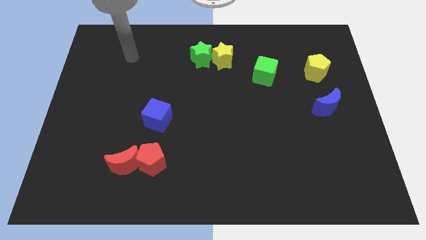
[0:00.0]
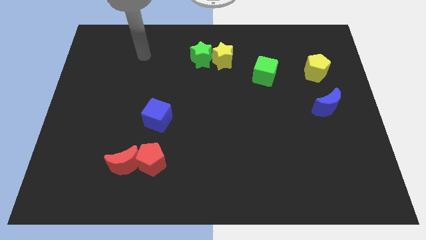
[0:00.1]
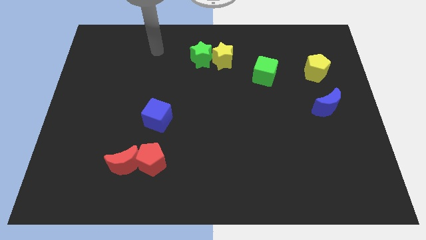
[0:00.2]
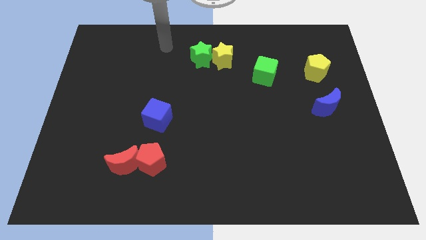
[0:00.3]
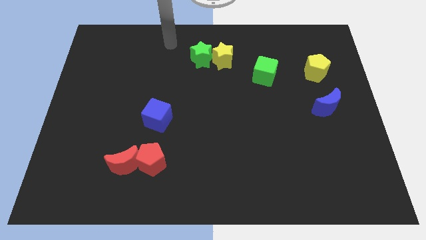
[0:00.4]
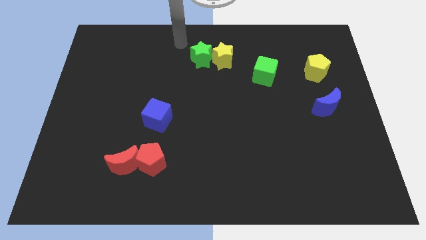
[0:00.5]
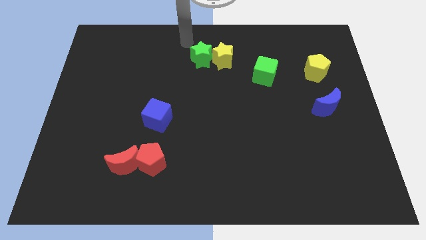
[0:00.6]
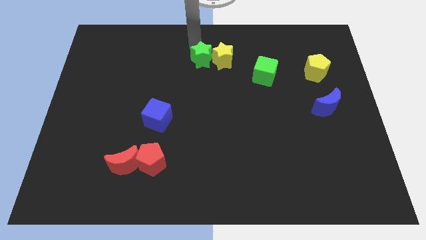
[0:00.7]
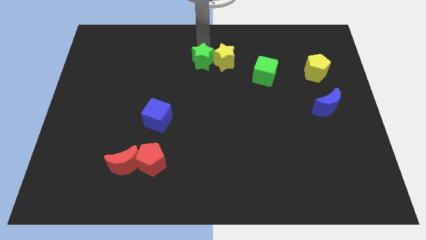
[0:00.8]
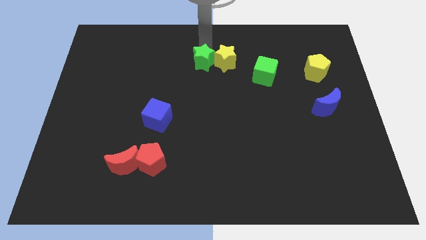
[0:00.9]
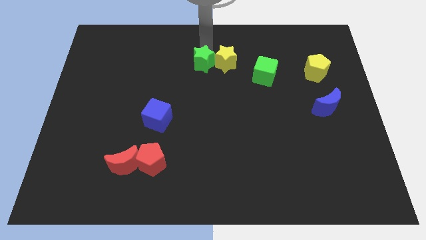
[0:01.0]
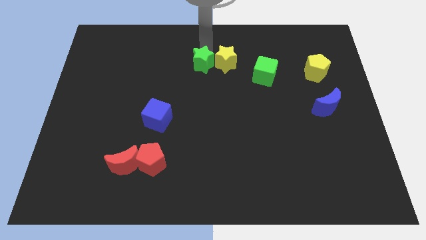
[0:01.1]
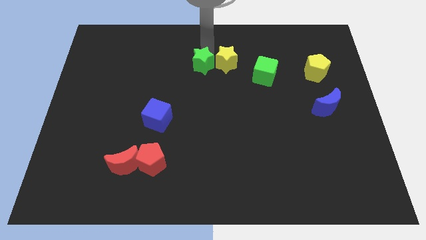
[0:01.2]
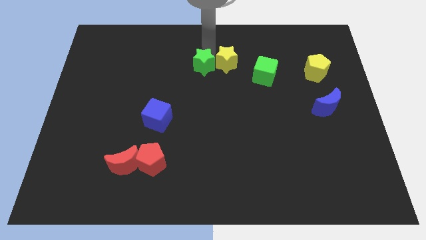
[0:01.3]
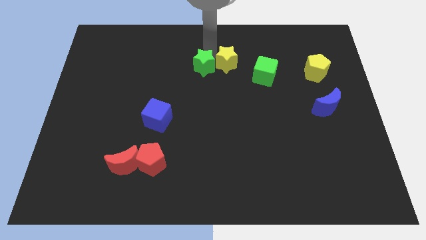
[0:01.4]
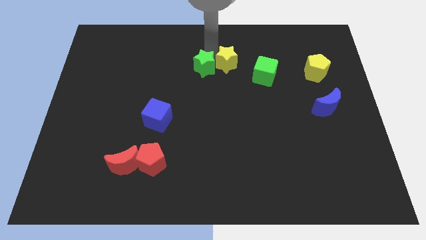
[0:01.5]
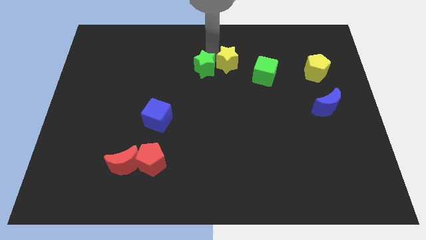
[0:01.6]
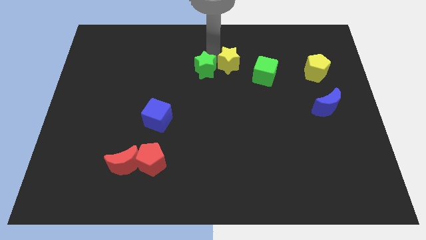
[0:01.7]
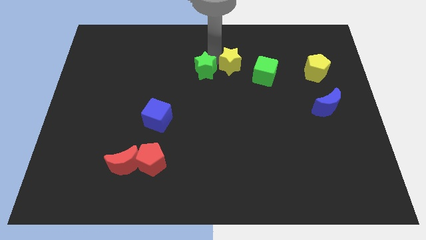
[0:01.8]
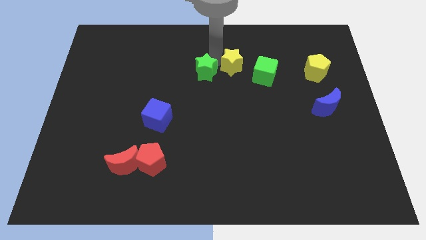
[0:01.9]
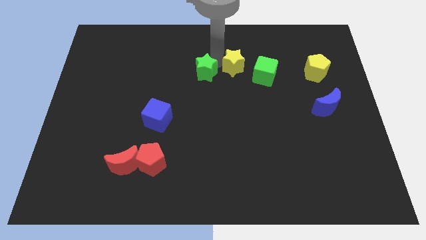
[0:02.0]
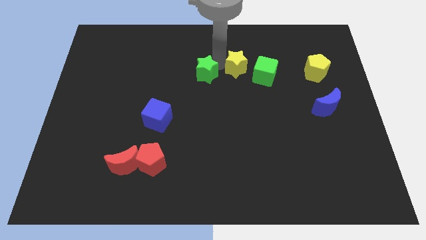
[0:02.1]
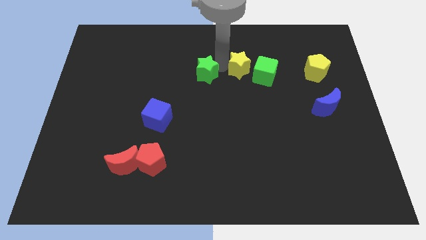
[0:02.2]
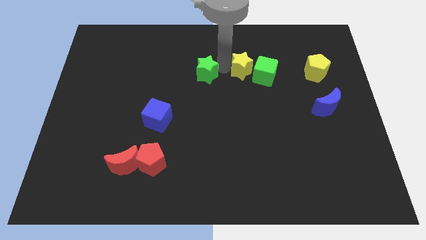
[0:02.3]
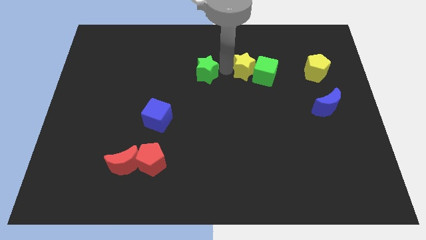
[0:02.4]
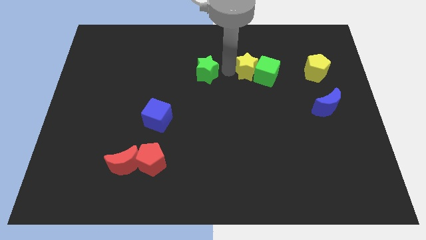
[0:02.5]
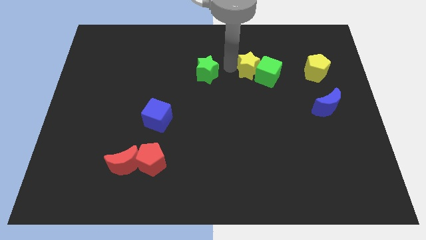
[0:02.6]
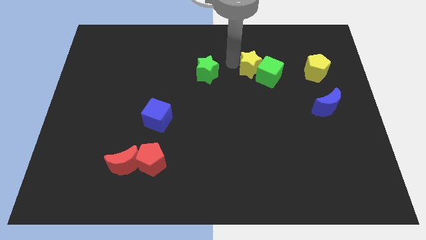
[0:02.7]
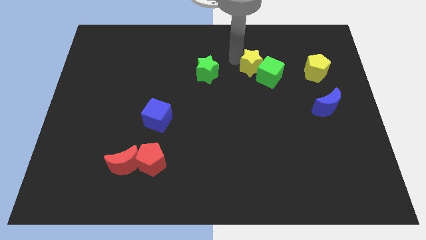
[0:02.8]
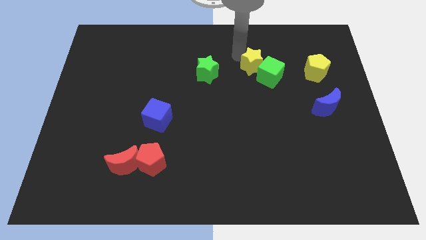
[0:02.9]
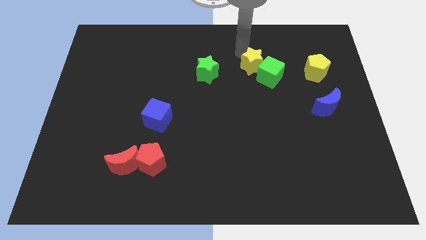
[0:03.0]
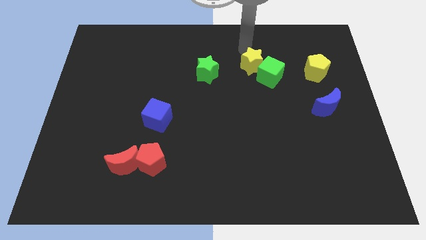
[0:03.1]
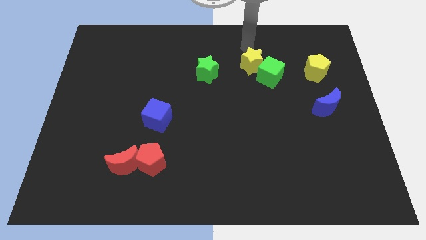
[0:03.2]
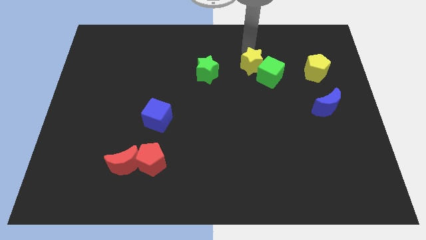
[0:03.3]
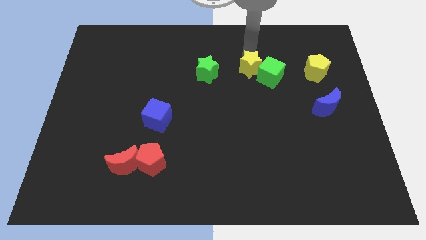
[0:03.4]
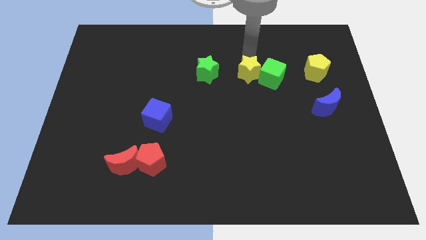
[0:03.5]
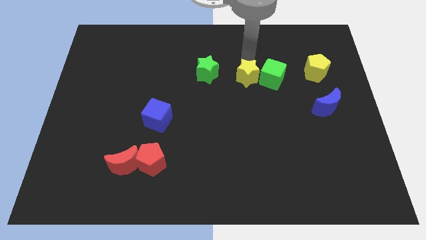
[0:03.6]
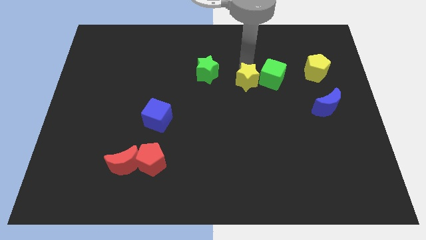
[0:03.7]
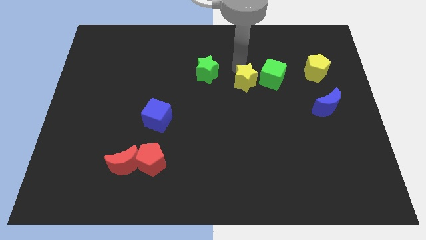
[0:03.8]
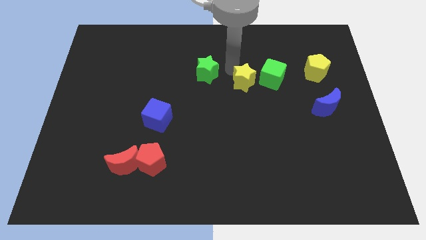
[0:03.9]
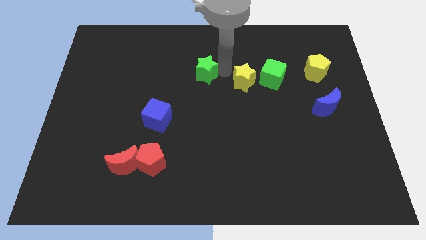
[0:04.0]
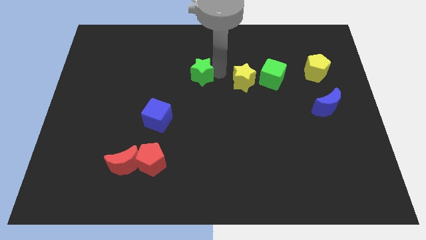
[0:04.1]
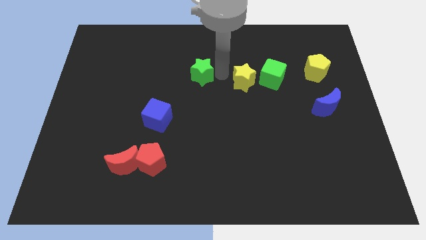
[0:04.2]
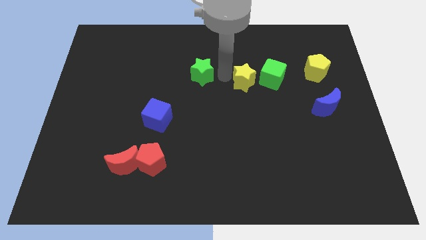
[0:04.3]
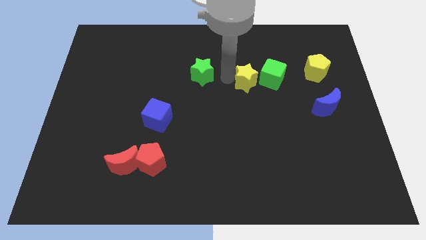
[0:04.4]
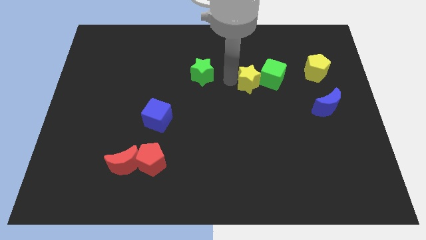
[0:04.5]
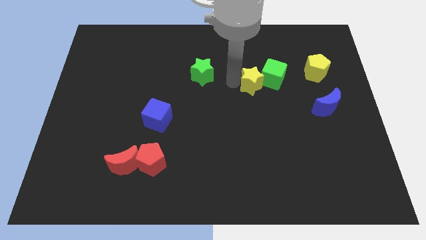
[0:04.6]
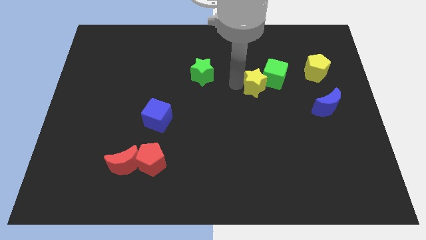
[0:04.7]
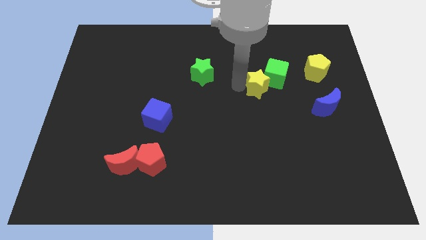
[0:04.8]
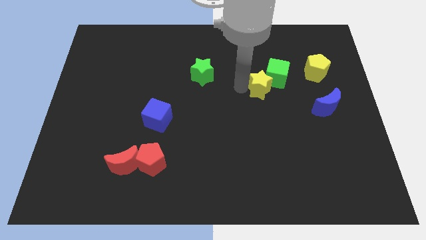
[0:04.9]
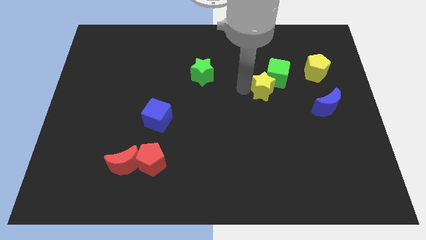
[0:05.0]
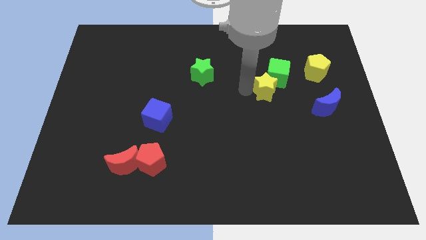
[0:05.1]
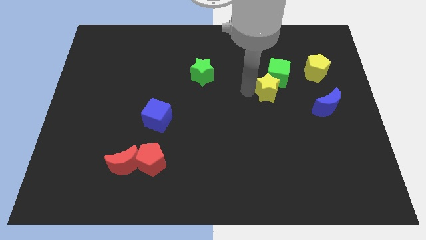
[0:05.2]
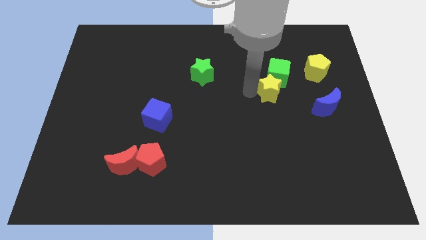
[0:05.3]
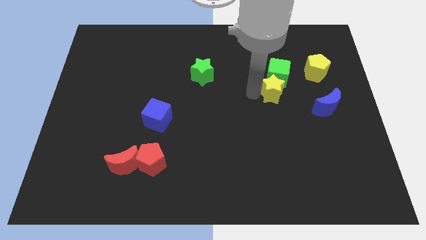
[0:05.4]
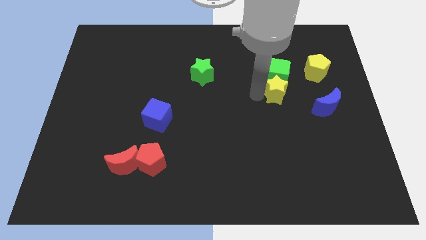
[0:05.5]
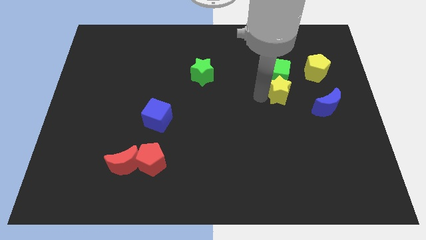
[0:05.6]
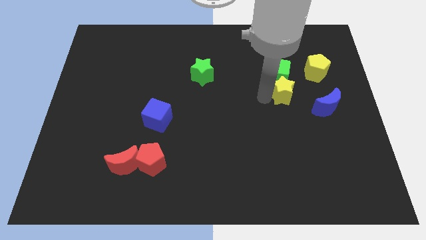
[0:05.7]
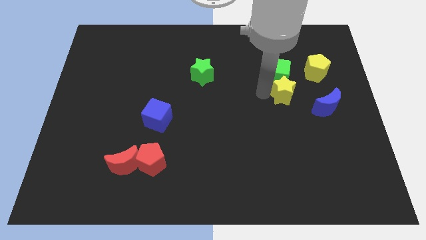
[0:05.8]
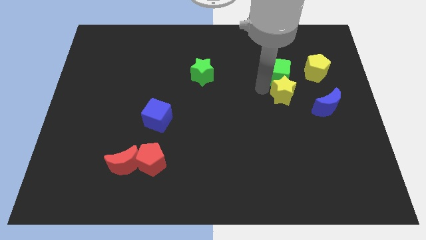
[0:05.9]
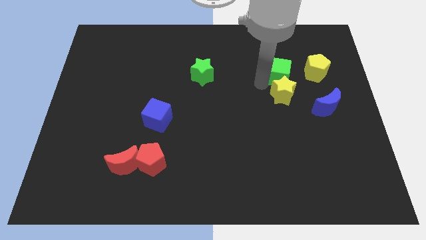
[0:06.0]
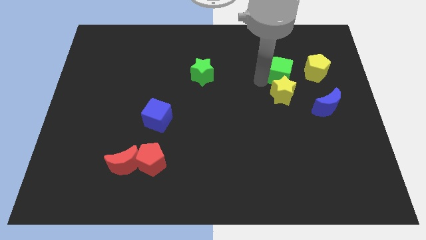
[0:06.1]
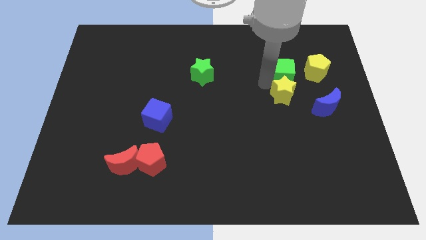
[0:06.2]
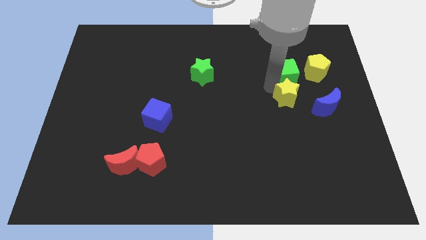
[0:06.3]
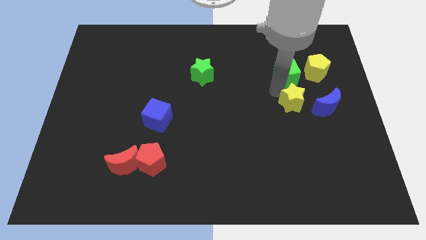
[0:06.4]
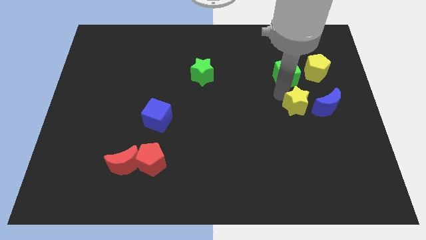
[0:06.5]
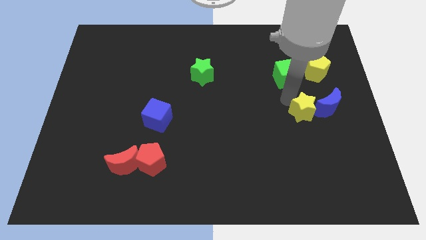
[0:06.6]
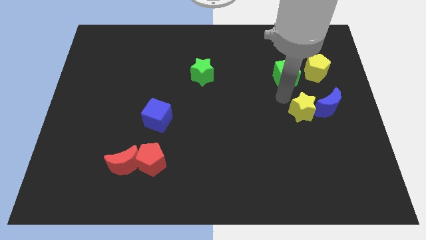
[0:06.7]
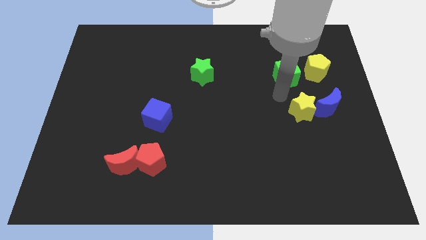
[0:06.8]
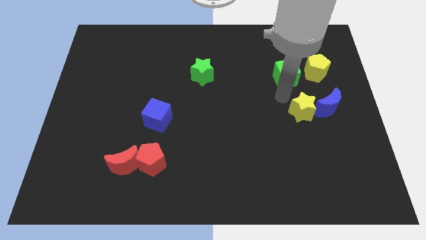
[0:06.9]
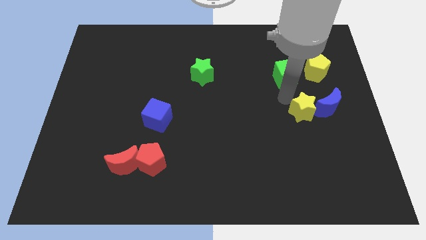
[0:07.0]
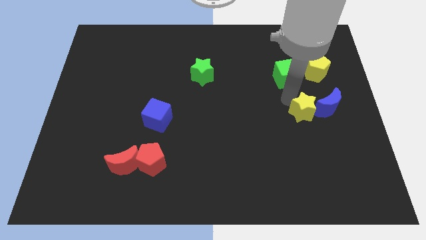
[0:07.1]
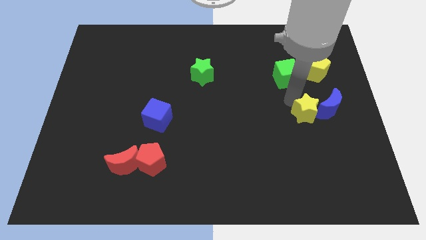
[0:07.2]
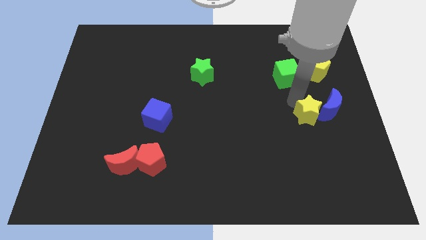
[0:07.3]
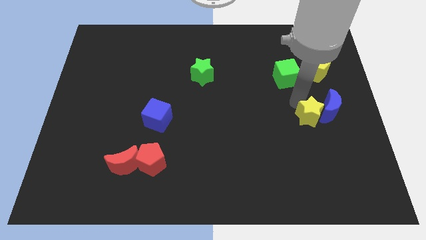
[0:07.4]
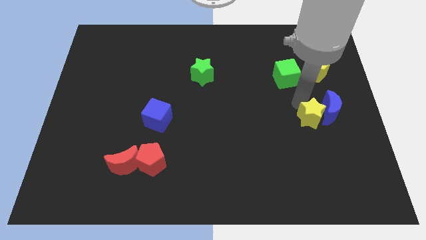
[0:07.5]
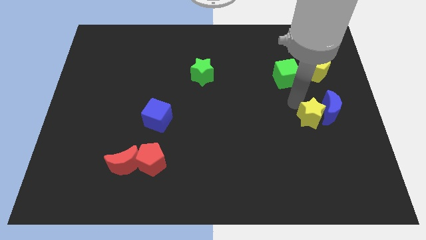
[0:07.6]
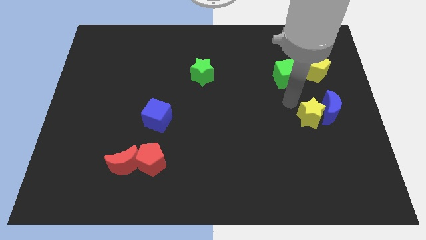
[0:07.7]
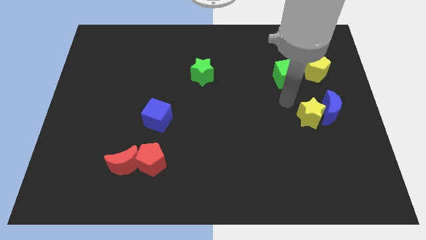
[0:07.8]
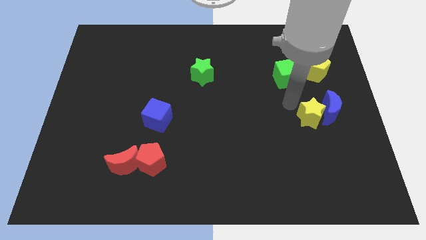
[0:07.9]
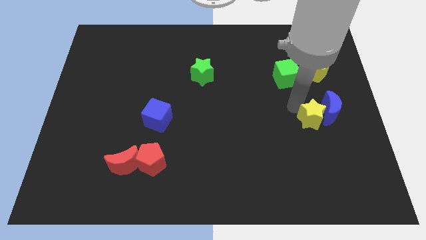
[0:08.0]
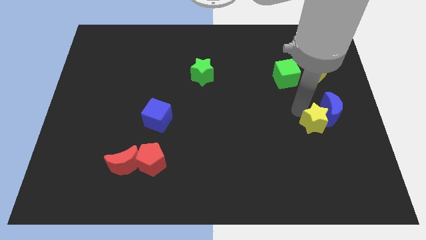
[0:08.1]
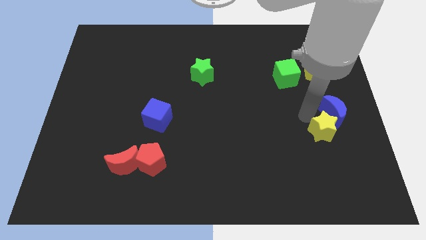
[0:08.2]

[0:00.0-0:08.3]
push the yellow star to the bottom side of the blue moon
